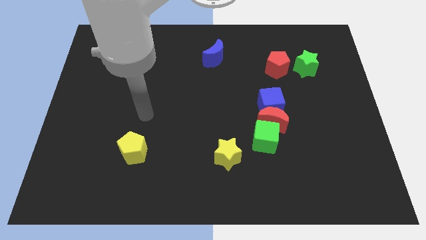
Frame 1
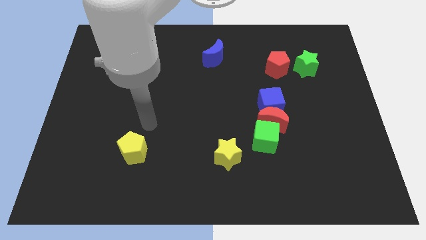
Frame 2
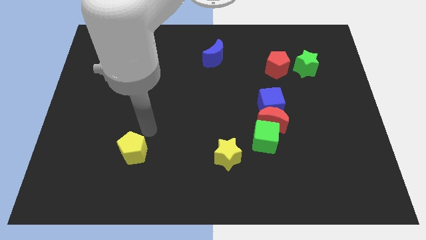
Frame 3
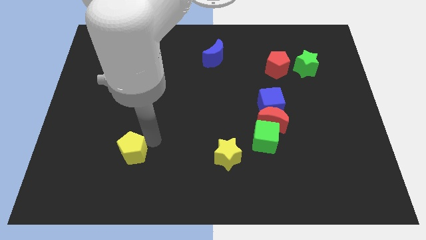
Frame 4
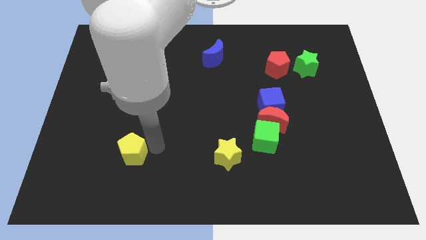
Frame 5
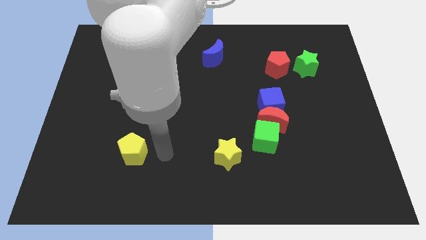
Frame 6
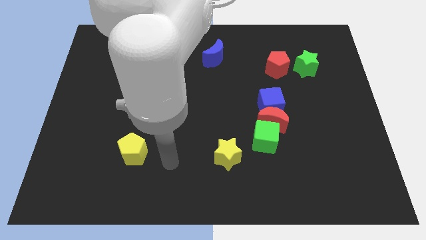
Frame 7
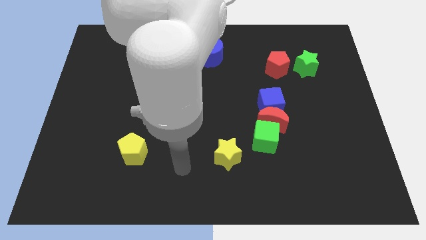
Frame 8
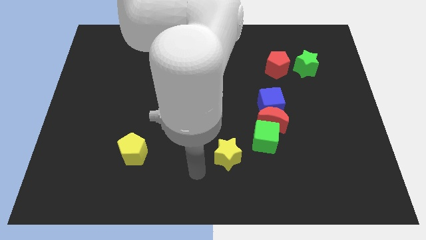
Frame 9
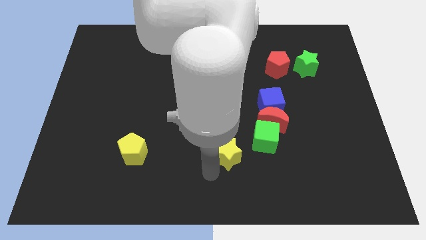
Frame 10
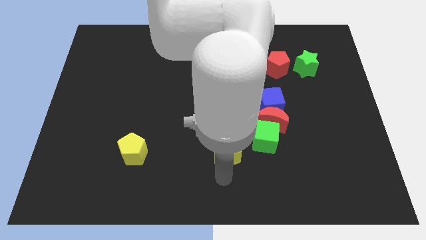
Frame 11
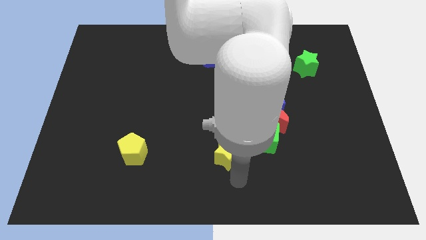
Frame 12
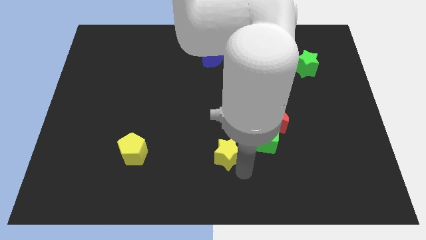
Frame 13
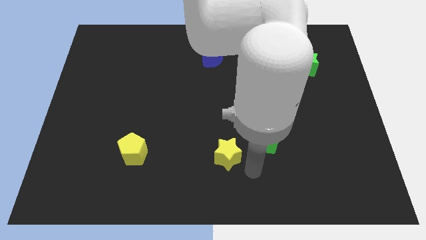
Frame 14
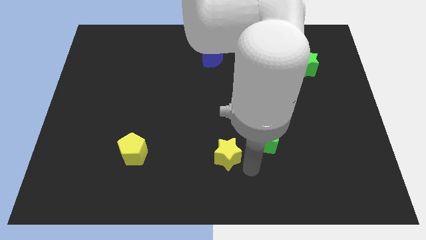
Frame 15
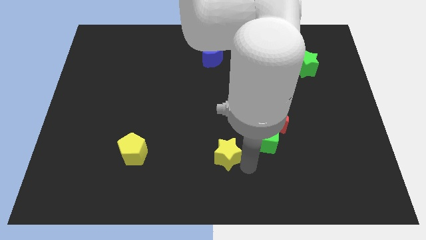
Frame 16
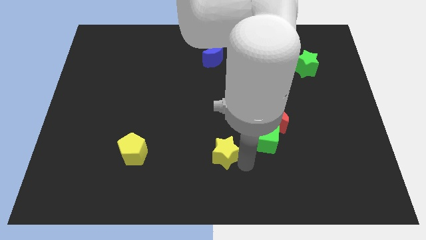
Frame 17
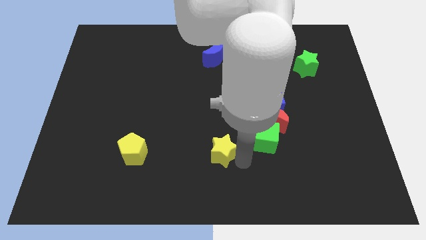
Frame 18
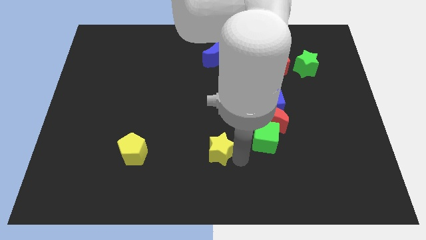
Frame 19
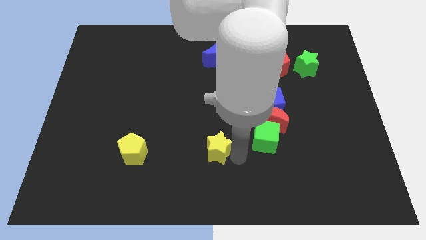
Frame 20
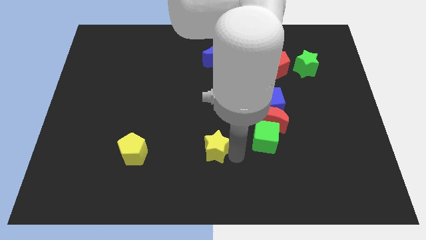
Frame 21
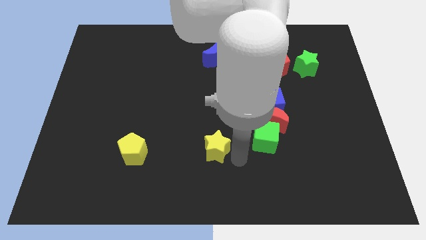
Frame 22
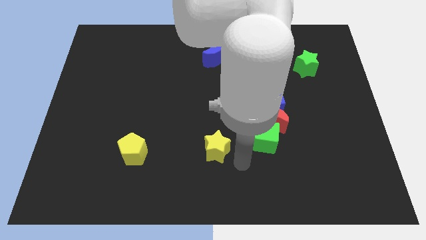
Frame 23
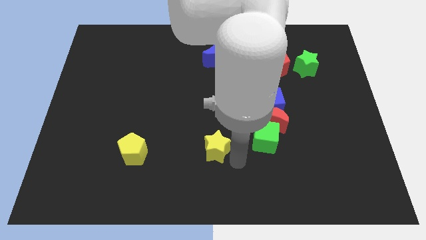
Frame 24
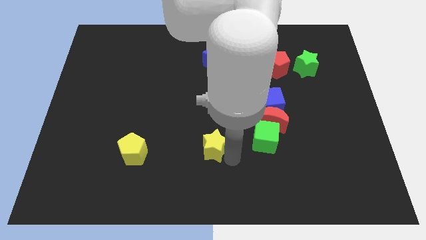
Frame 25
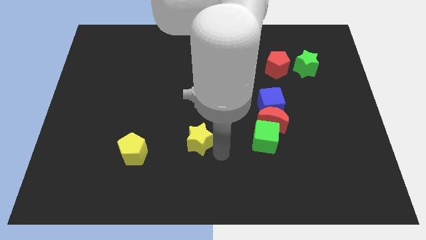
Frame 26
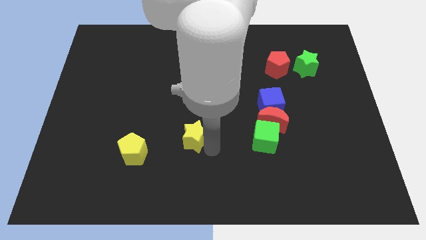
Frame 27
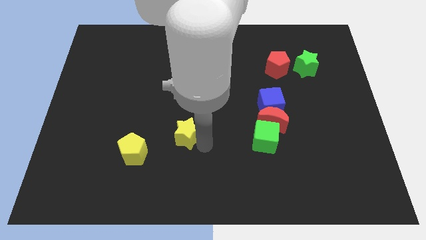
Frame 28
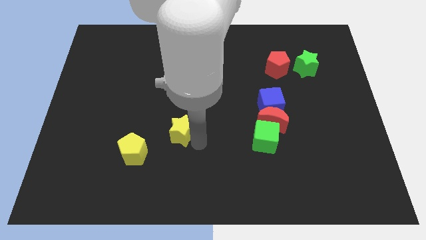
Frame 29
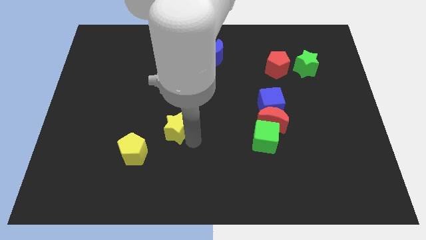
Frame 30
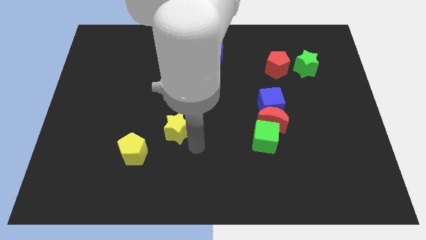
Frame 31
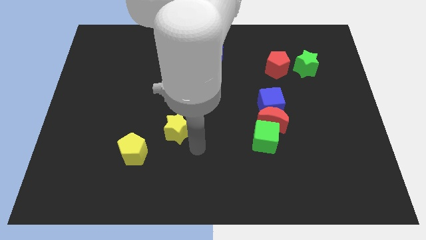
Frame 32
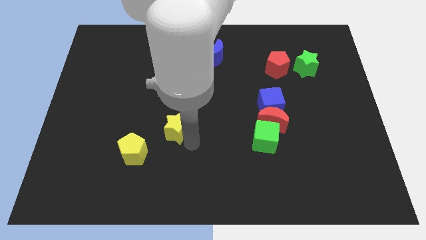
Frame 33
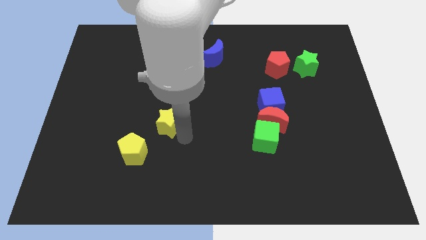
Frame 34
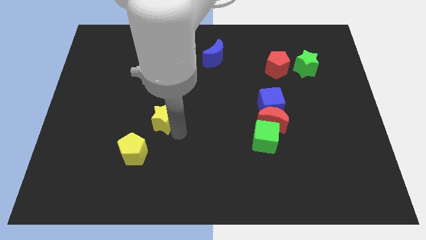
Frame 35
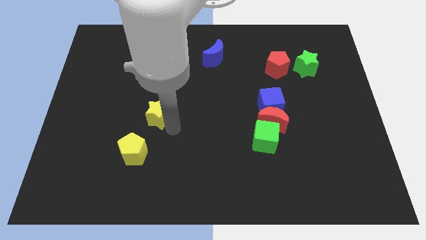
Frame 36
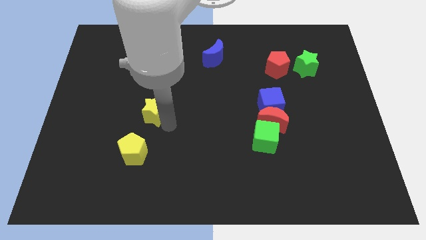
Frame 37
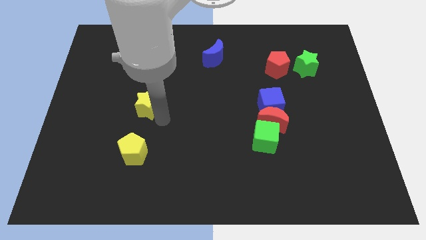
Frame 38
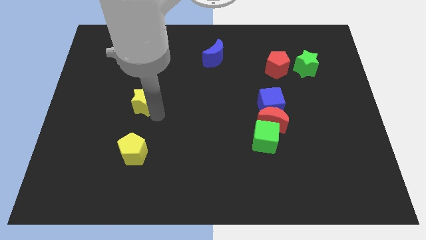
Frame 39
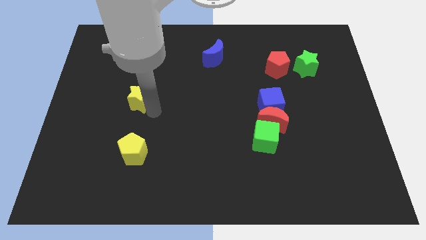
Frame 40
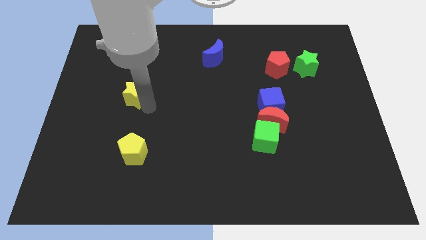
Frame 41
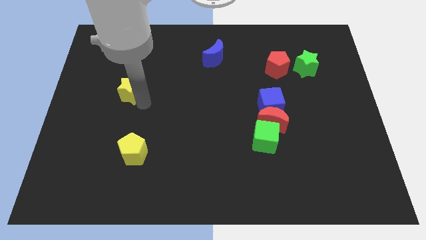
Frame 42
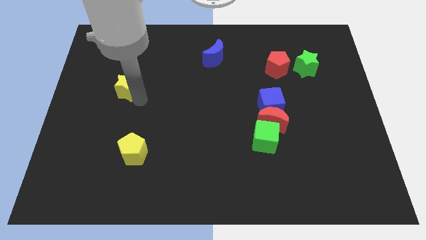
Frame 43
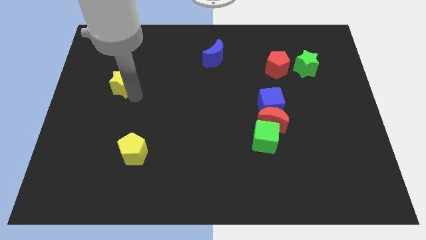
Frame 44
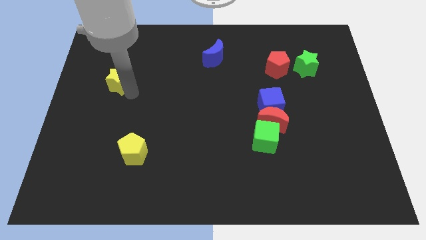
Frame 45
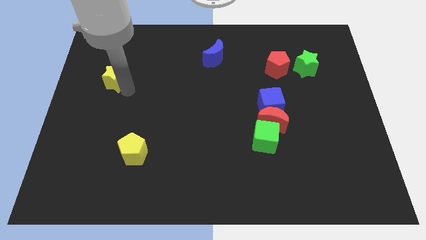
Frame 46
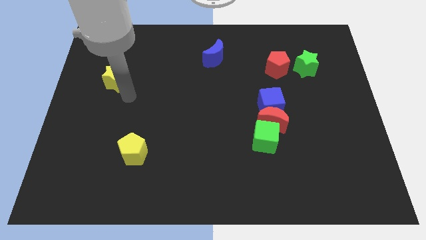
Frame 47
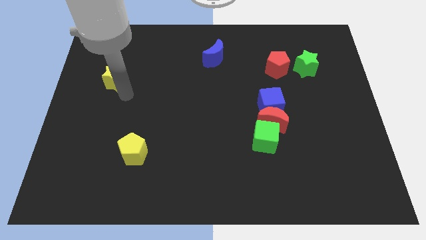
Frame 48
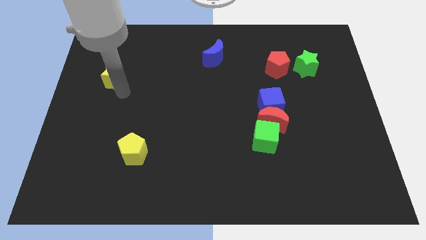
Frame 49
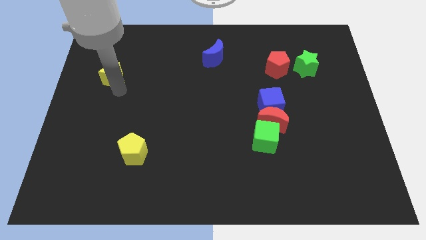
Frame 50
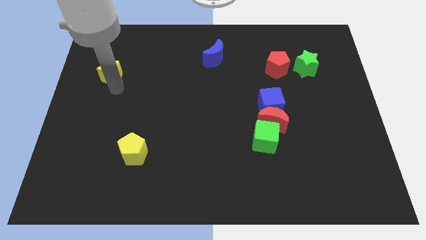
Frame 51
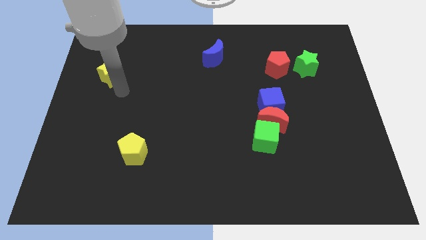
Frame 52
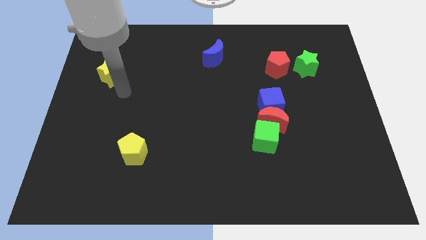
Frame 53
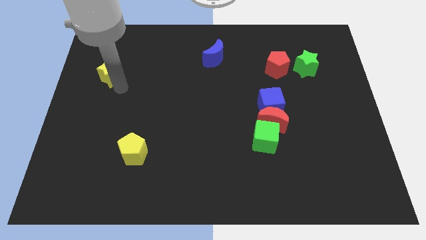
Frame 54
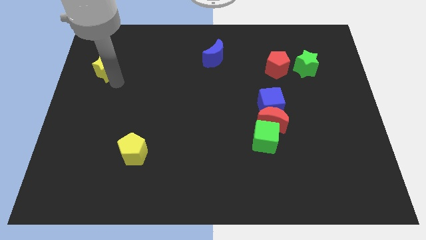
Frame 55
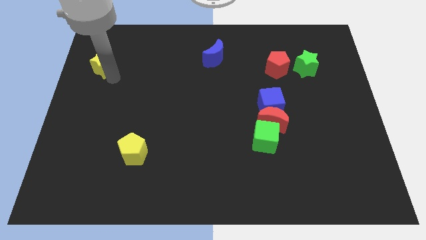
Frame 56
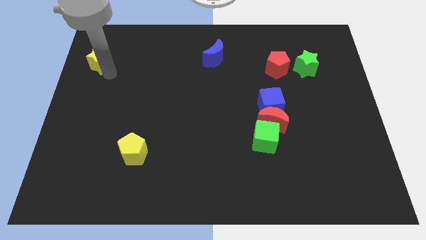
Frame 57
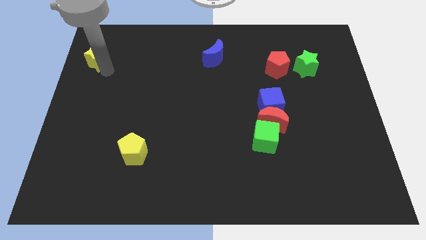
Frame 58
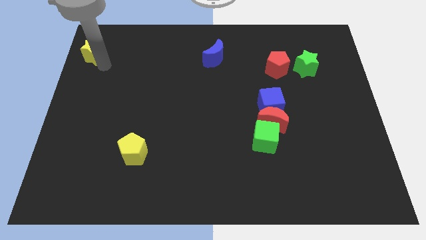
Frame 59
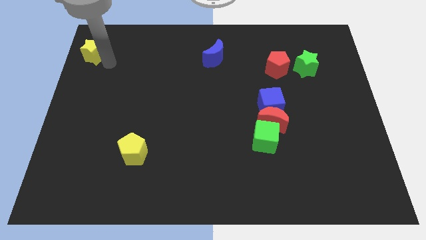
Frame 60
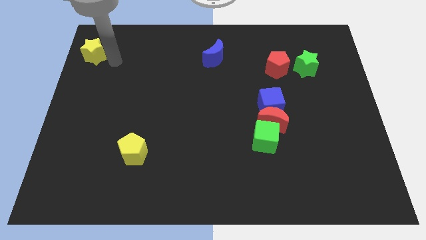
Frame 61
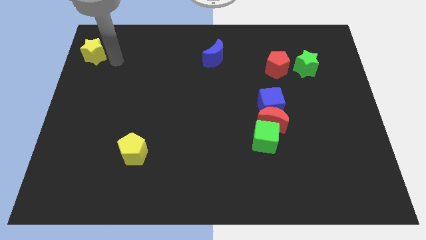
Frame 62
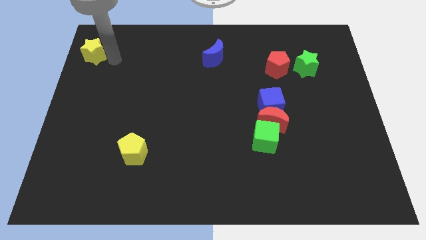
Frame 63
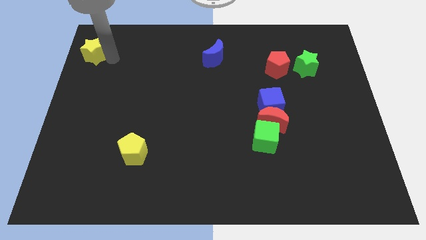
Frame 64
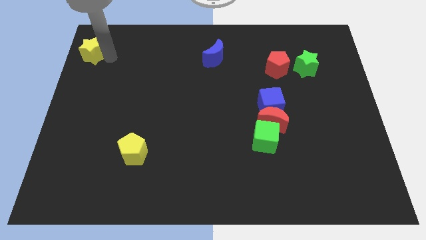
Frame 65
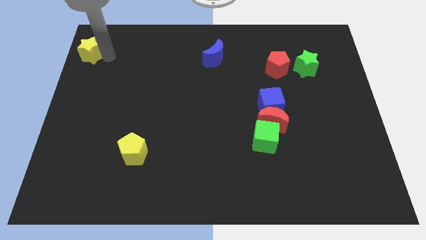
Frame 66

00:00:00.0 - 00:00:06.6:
push the yellow star to the top left
